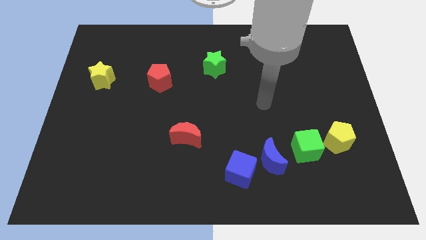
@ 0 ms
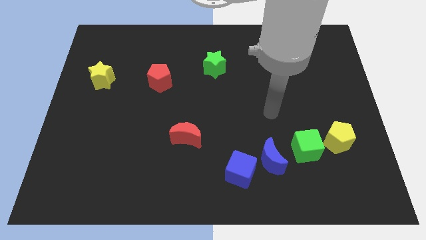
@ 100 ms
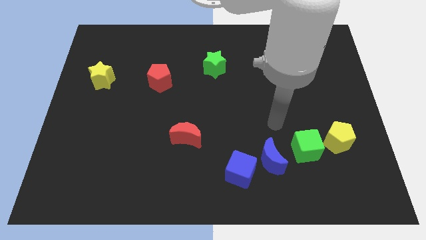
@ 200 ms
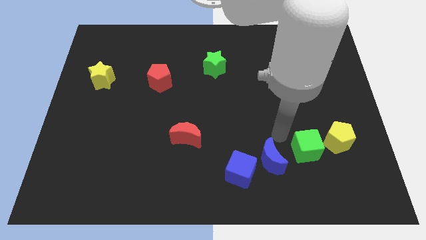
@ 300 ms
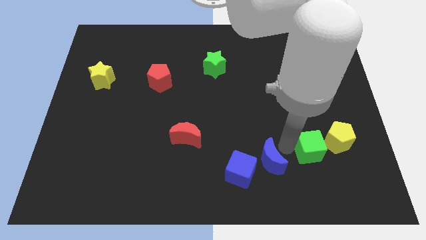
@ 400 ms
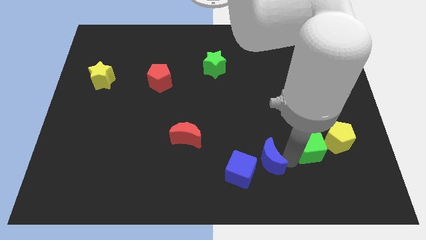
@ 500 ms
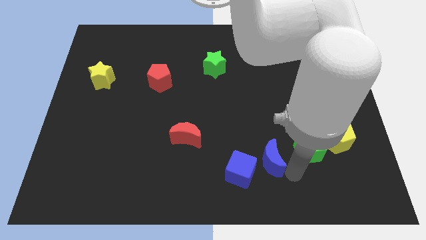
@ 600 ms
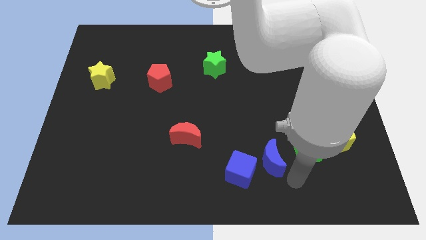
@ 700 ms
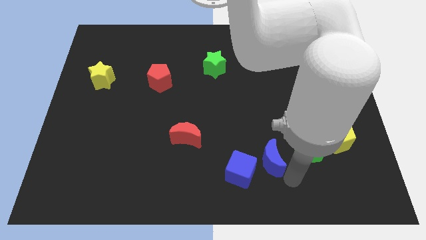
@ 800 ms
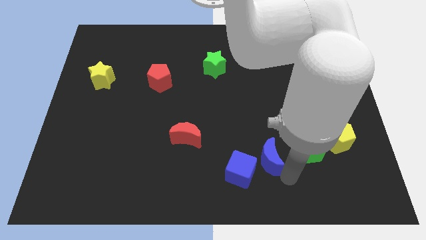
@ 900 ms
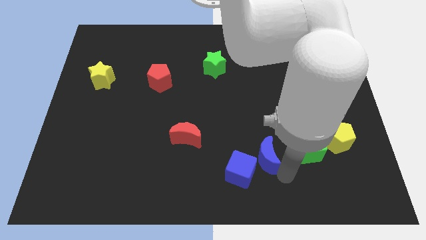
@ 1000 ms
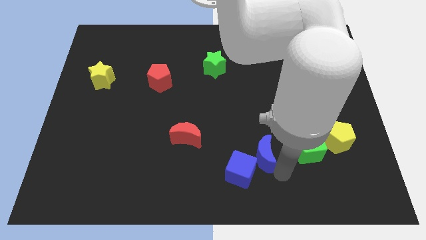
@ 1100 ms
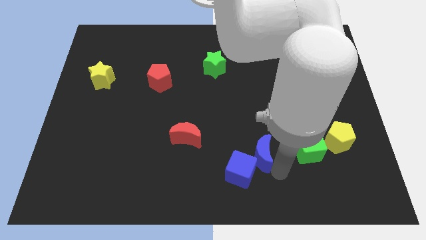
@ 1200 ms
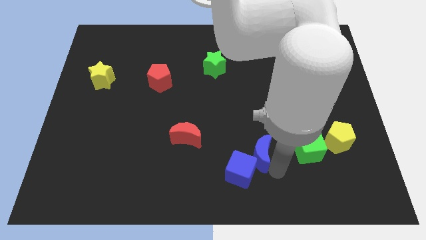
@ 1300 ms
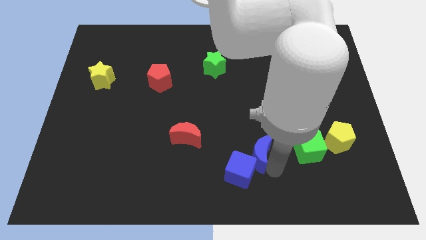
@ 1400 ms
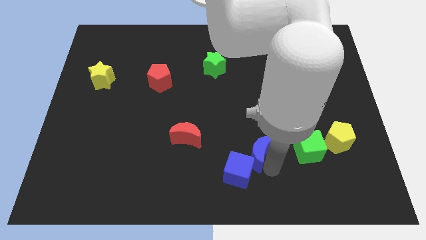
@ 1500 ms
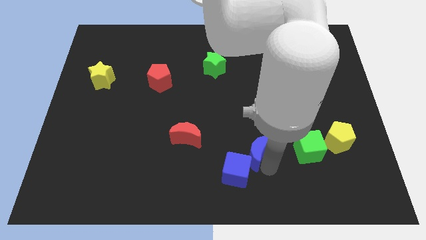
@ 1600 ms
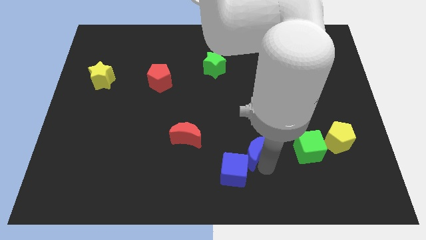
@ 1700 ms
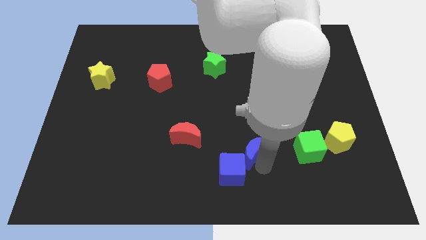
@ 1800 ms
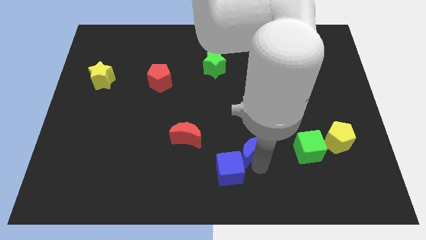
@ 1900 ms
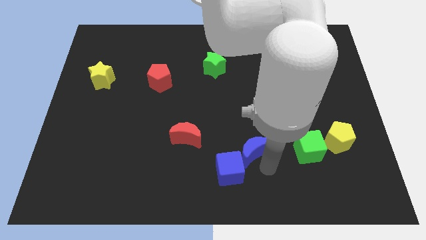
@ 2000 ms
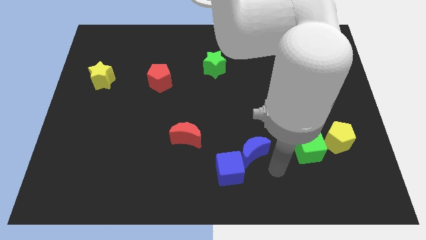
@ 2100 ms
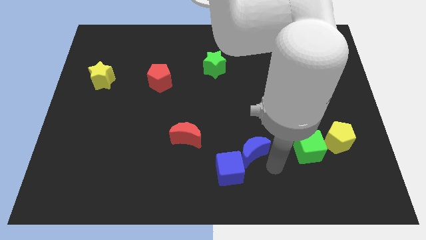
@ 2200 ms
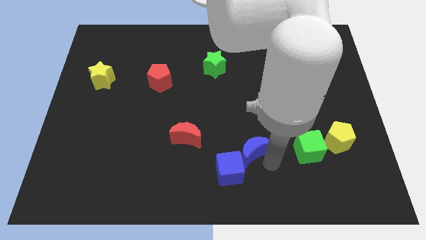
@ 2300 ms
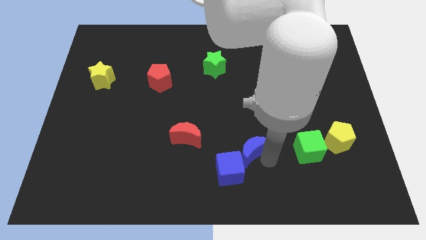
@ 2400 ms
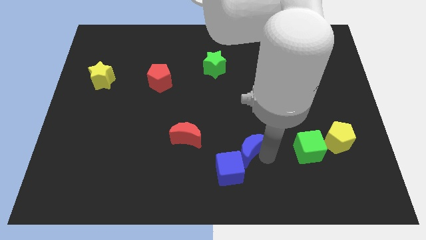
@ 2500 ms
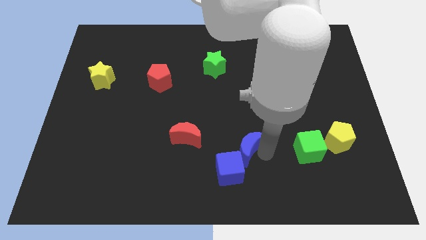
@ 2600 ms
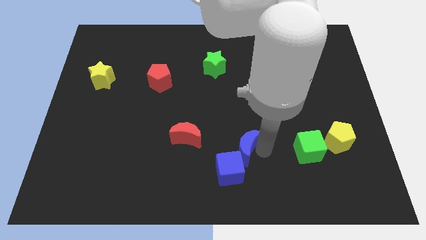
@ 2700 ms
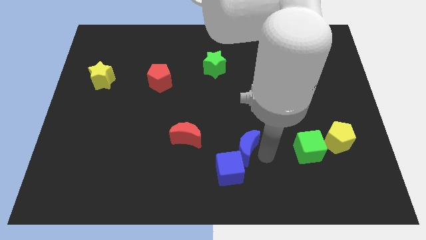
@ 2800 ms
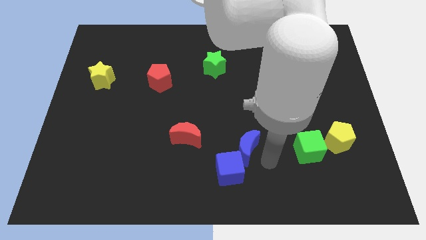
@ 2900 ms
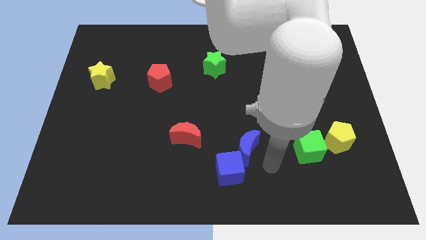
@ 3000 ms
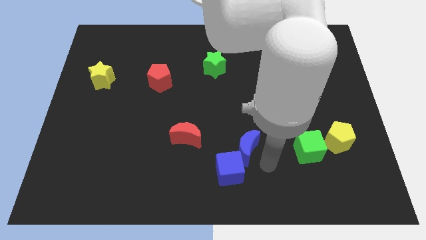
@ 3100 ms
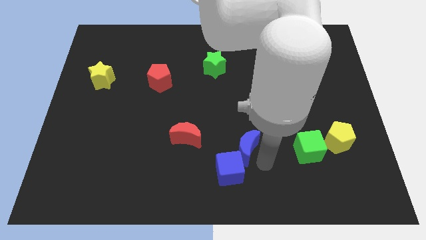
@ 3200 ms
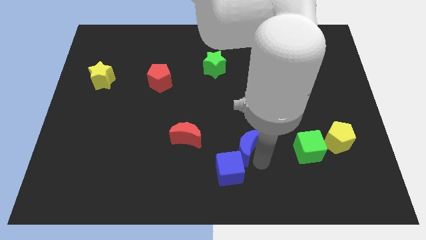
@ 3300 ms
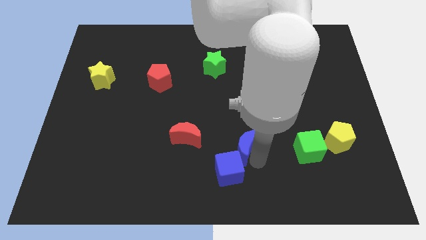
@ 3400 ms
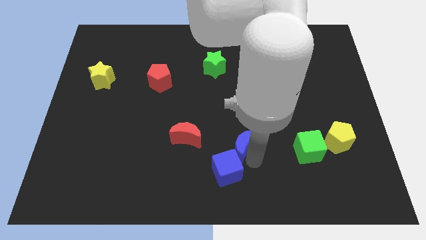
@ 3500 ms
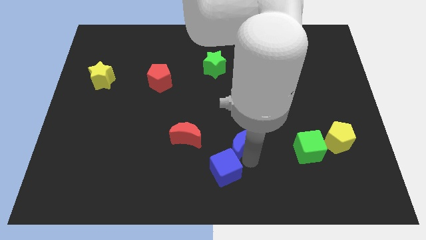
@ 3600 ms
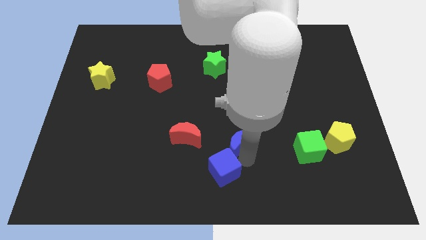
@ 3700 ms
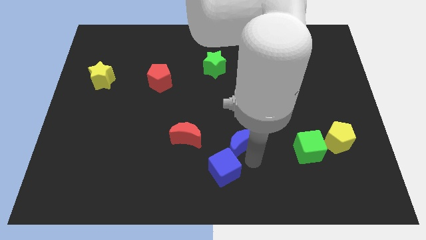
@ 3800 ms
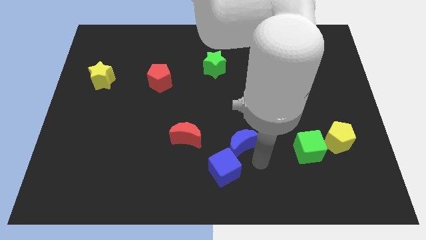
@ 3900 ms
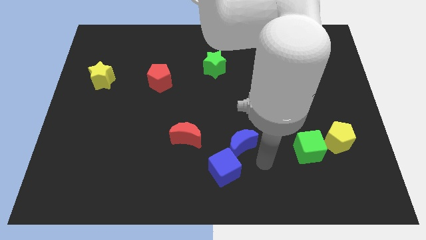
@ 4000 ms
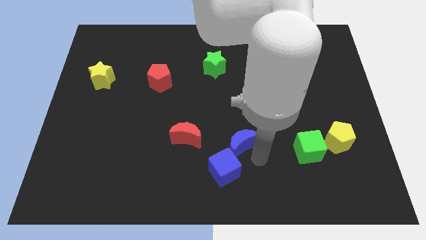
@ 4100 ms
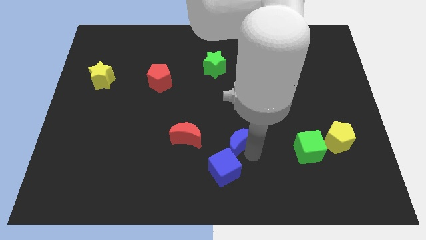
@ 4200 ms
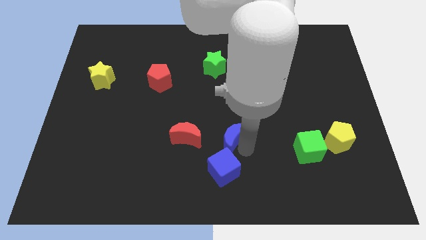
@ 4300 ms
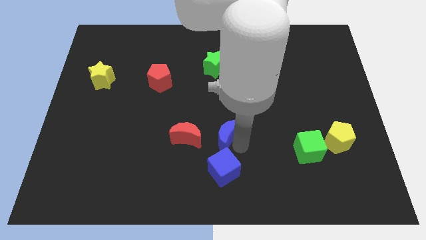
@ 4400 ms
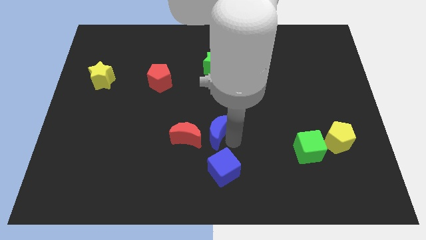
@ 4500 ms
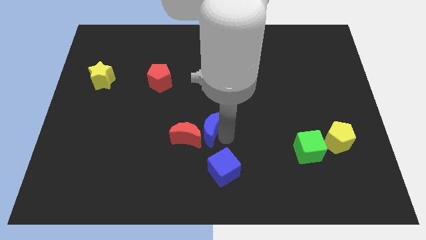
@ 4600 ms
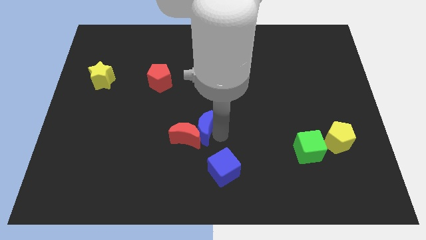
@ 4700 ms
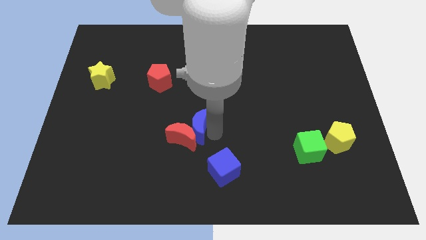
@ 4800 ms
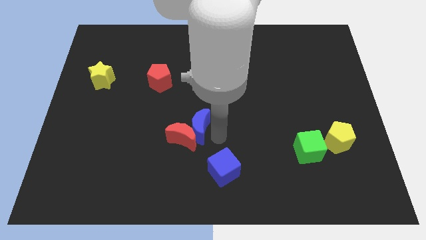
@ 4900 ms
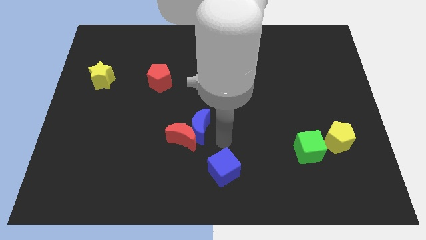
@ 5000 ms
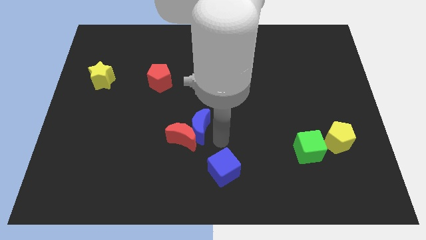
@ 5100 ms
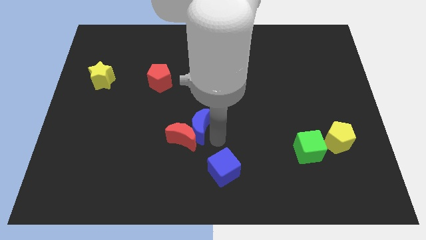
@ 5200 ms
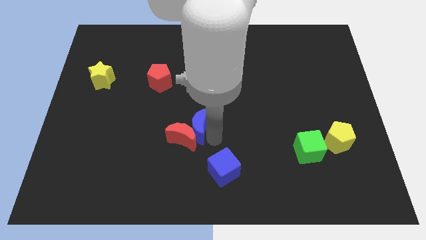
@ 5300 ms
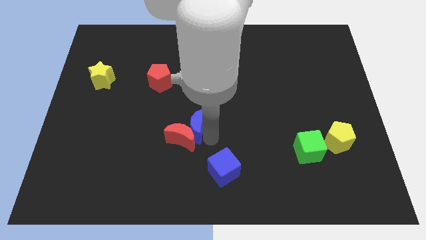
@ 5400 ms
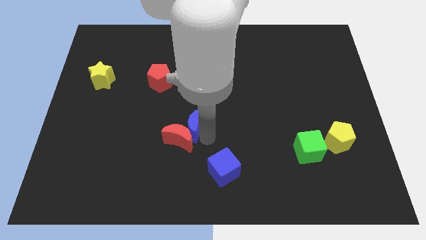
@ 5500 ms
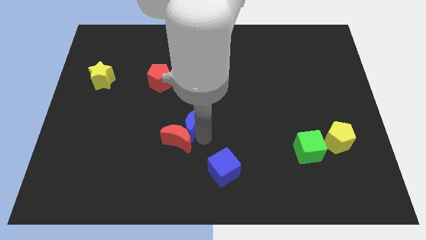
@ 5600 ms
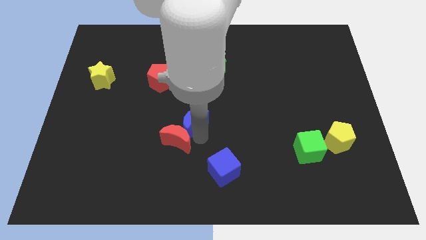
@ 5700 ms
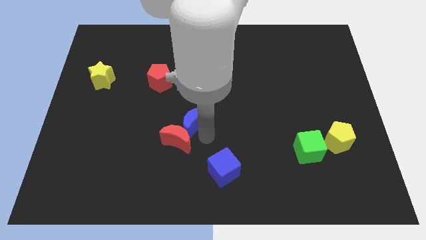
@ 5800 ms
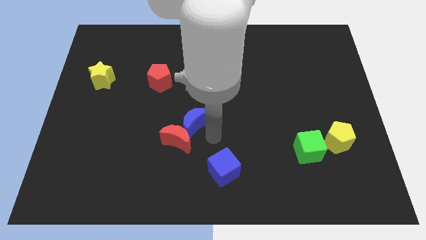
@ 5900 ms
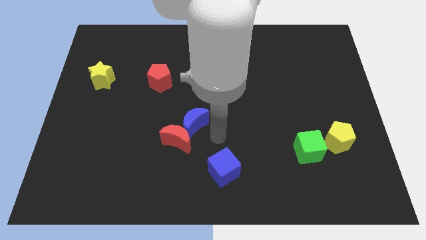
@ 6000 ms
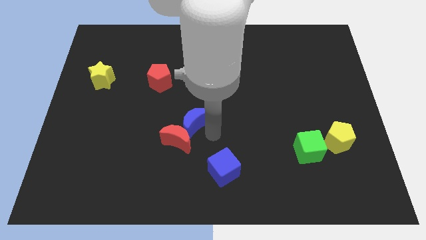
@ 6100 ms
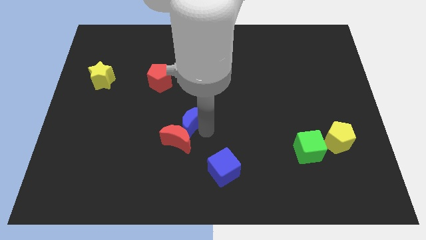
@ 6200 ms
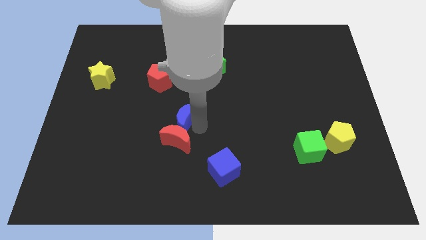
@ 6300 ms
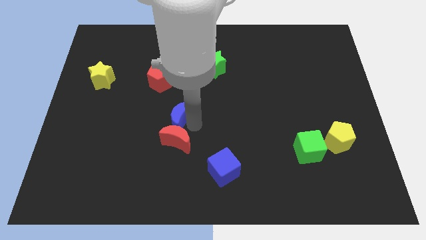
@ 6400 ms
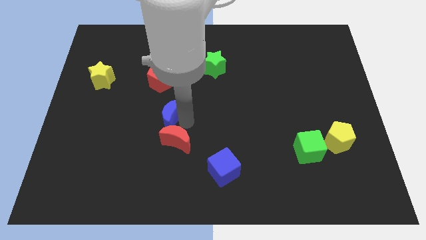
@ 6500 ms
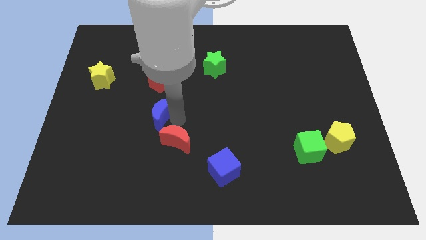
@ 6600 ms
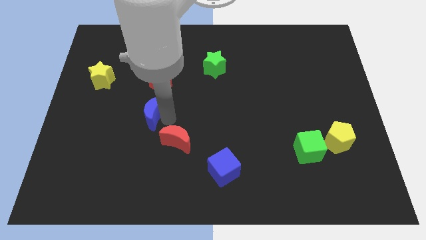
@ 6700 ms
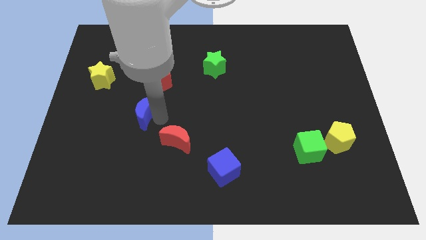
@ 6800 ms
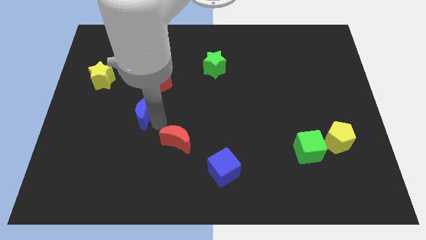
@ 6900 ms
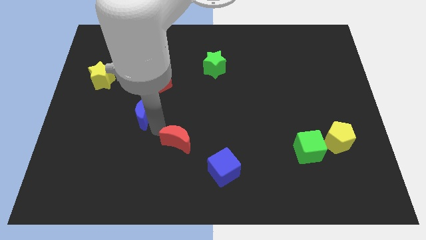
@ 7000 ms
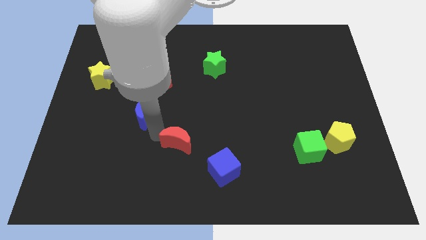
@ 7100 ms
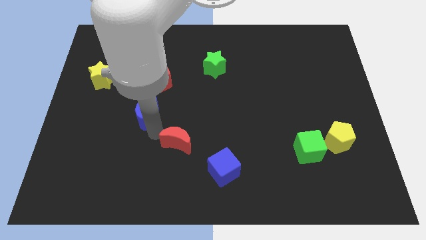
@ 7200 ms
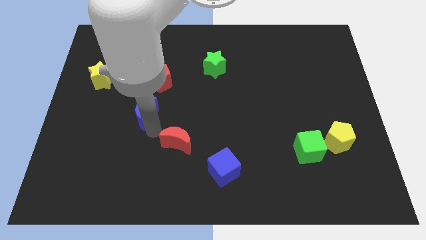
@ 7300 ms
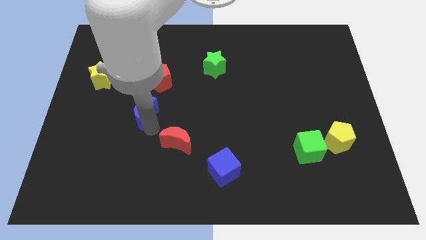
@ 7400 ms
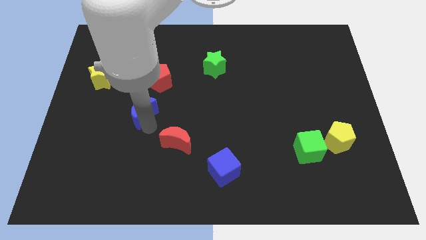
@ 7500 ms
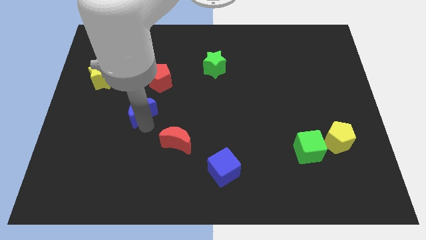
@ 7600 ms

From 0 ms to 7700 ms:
slide the blue moon to the bottom left side of the red pentagon

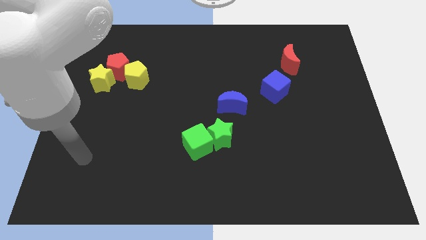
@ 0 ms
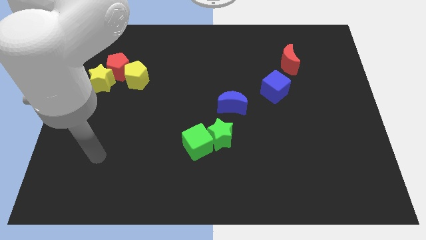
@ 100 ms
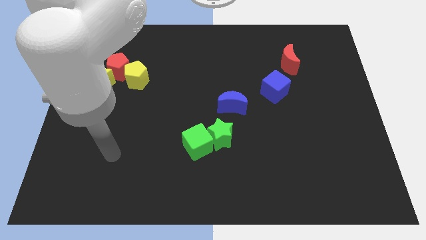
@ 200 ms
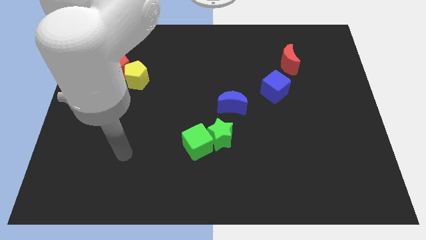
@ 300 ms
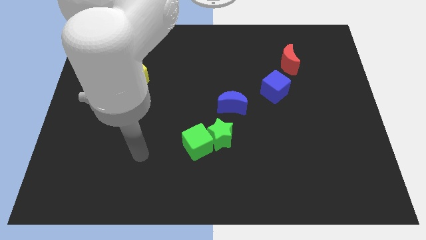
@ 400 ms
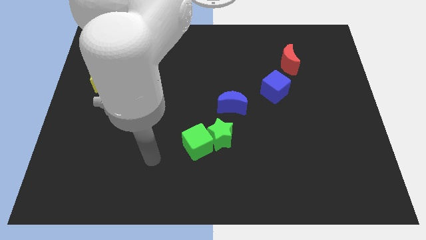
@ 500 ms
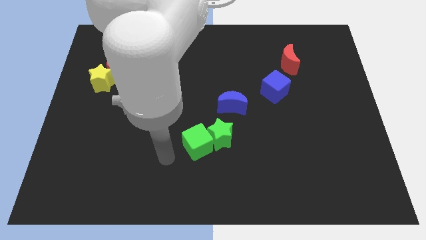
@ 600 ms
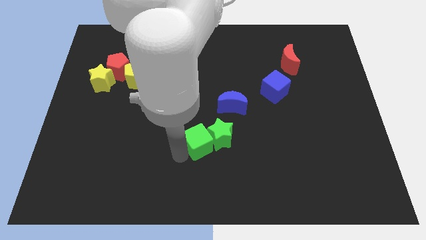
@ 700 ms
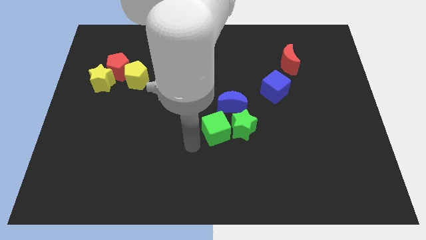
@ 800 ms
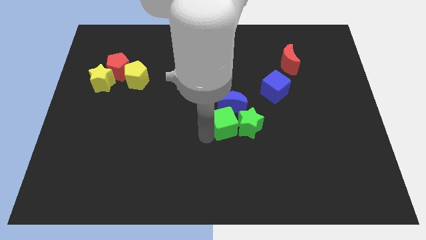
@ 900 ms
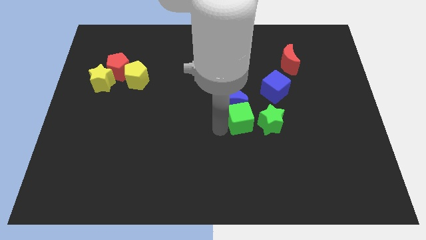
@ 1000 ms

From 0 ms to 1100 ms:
slide the green star below the blue cube
